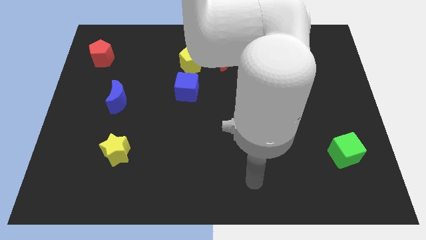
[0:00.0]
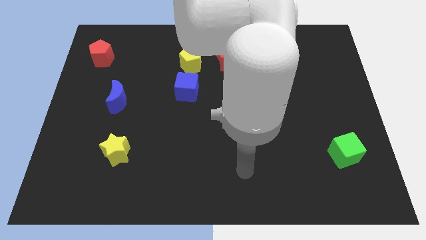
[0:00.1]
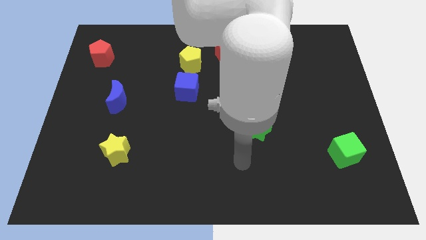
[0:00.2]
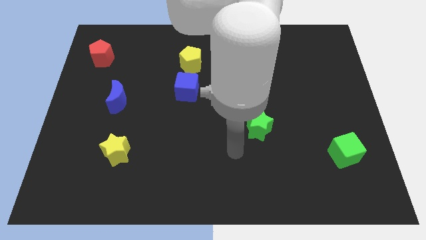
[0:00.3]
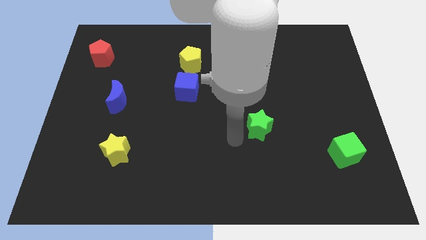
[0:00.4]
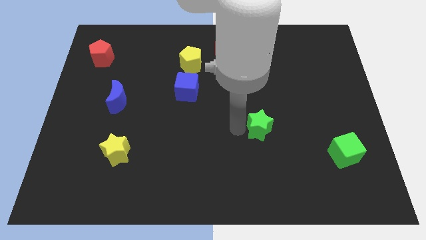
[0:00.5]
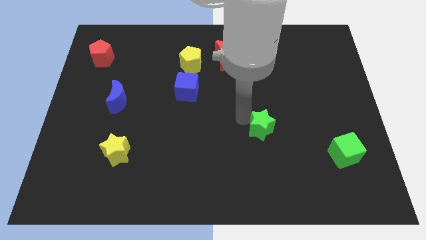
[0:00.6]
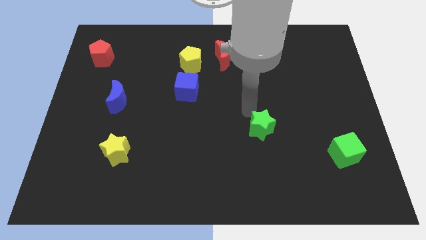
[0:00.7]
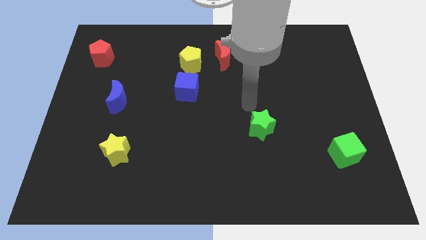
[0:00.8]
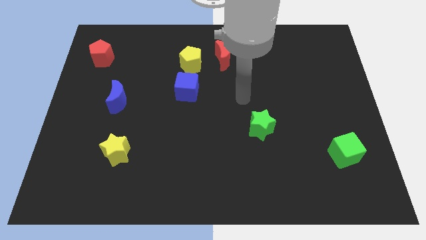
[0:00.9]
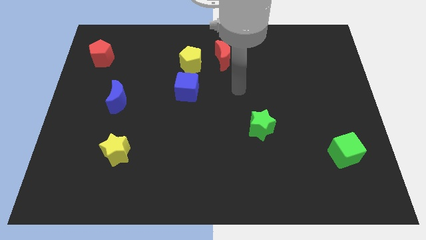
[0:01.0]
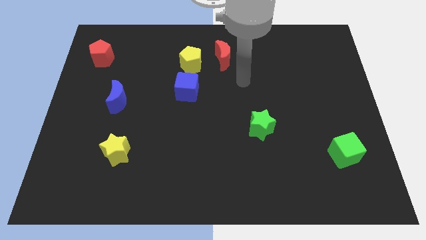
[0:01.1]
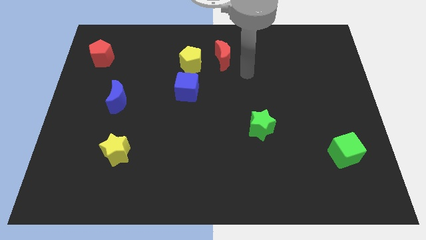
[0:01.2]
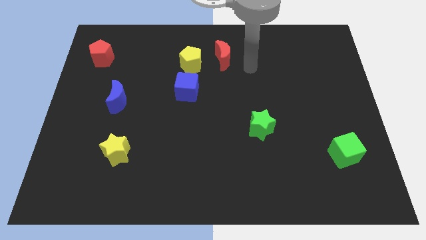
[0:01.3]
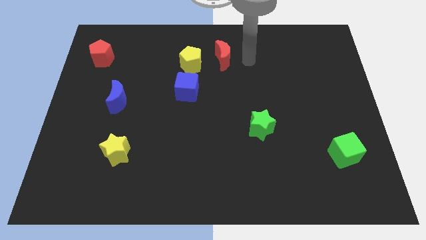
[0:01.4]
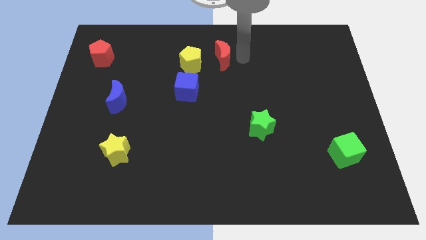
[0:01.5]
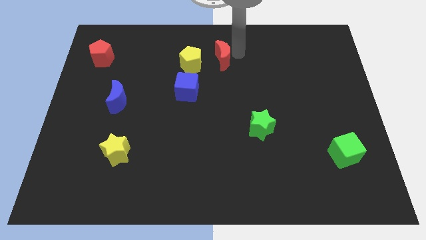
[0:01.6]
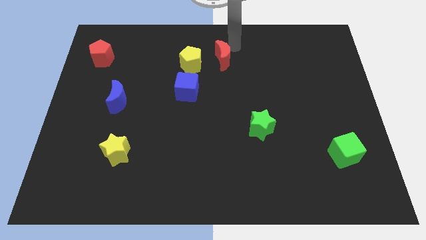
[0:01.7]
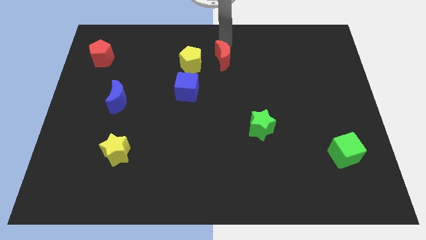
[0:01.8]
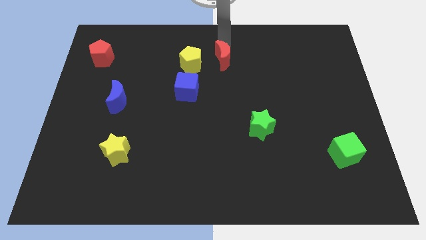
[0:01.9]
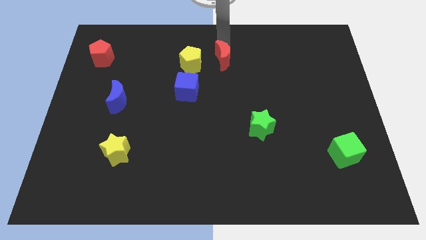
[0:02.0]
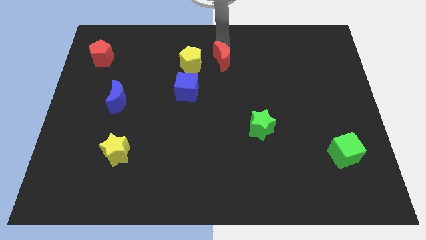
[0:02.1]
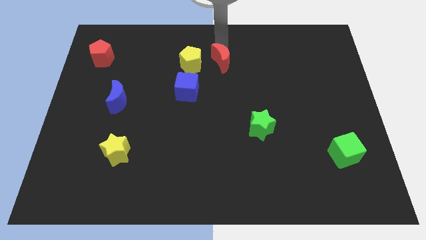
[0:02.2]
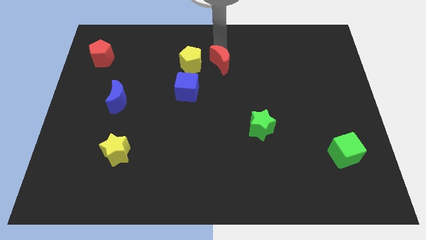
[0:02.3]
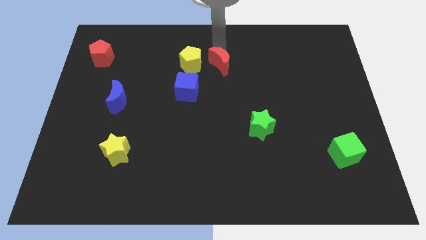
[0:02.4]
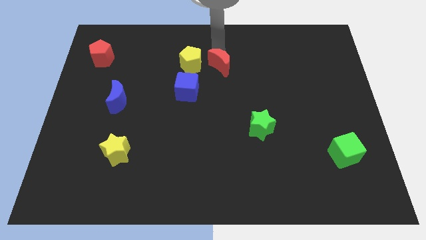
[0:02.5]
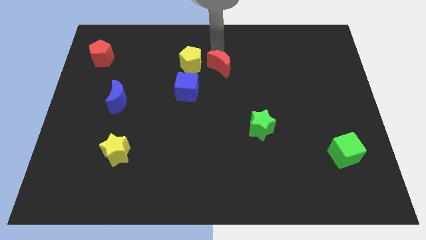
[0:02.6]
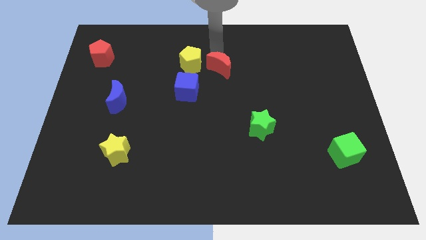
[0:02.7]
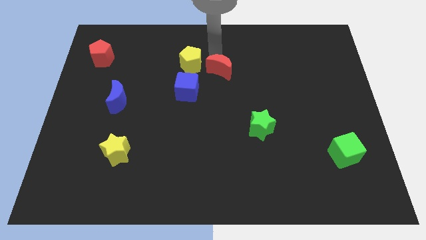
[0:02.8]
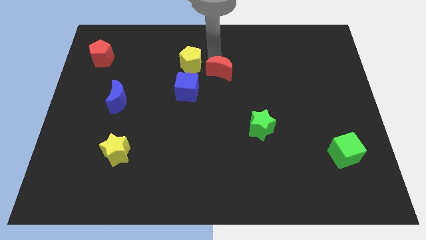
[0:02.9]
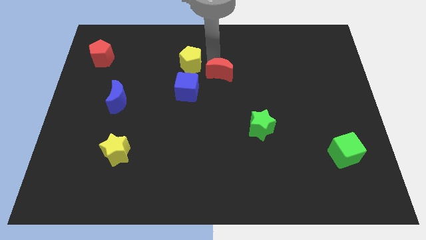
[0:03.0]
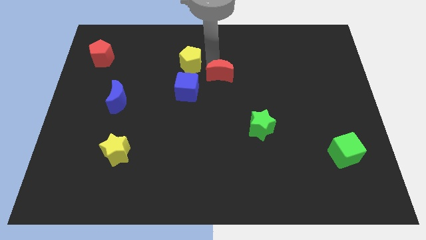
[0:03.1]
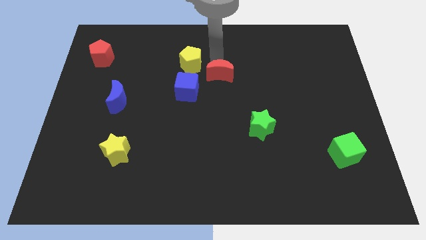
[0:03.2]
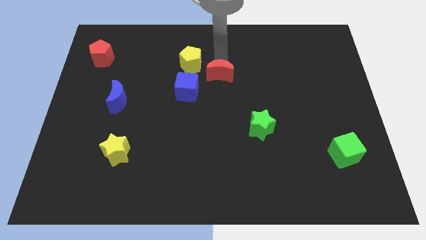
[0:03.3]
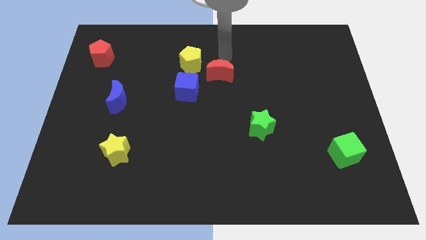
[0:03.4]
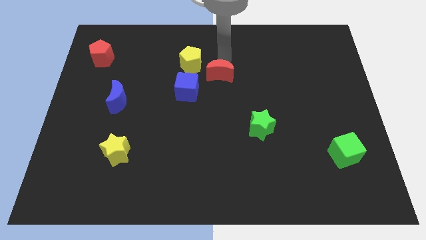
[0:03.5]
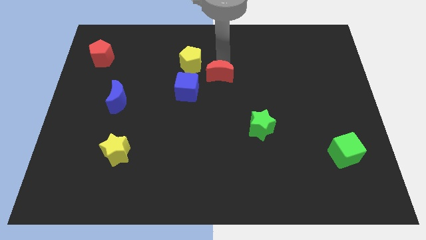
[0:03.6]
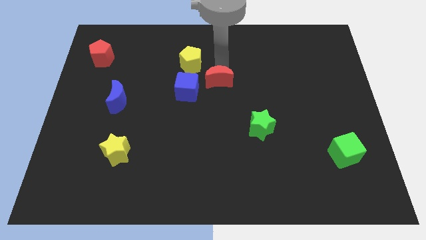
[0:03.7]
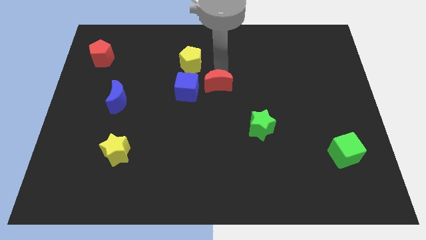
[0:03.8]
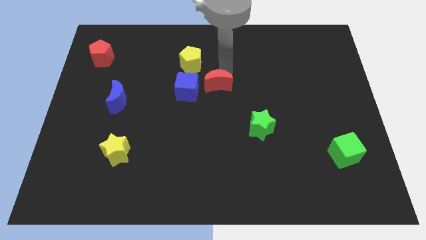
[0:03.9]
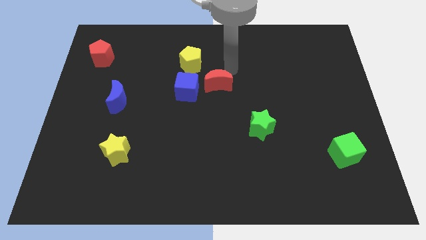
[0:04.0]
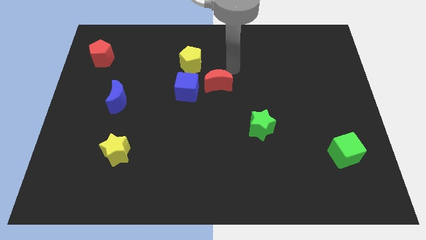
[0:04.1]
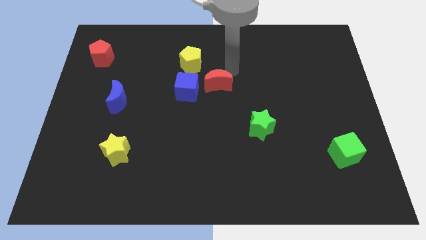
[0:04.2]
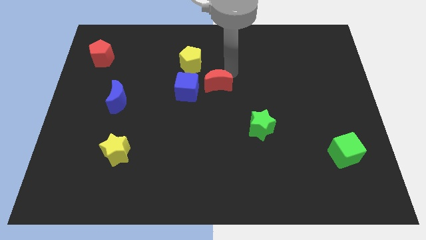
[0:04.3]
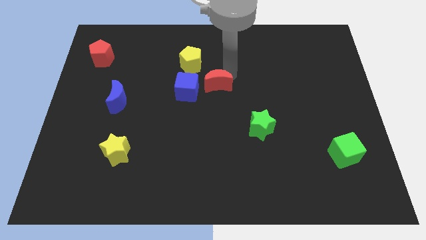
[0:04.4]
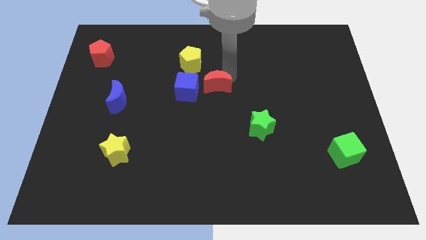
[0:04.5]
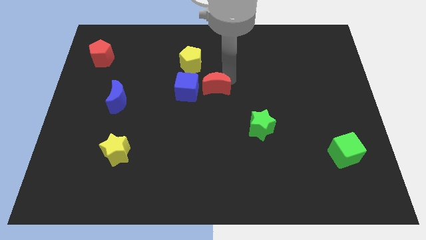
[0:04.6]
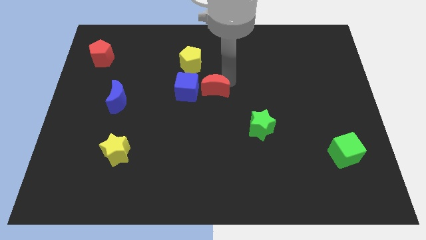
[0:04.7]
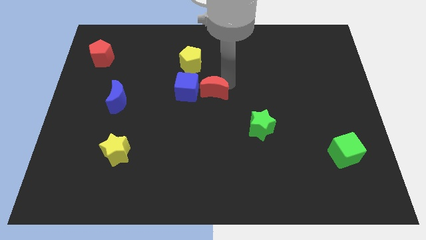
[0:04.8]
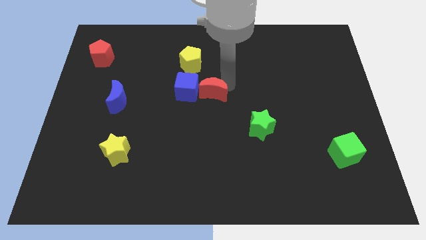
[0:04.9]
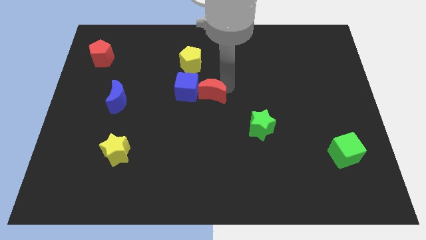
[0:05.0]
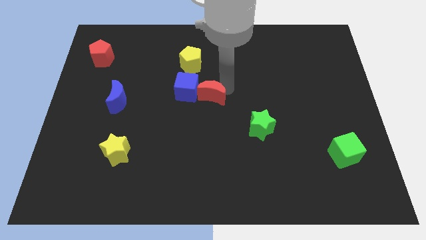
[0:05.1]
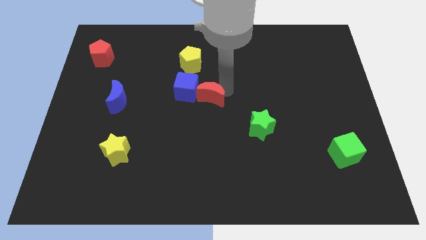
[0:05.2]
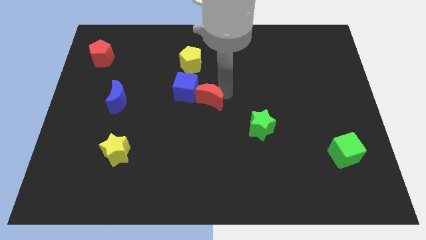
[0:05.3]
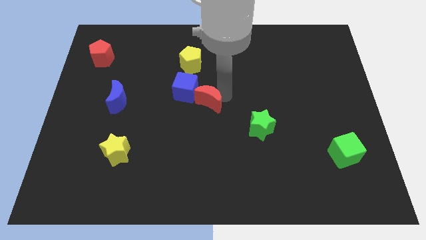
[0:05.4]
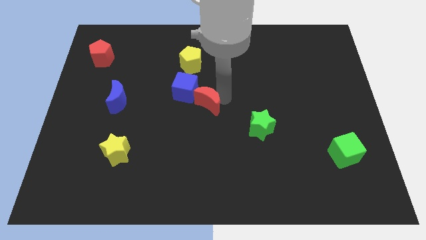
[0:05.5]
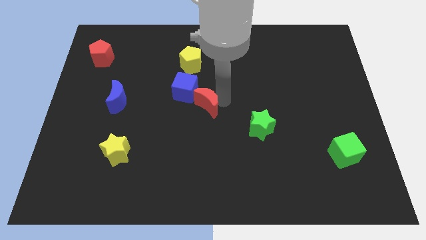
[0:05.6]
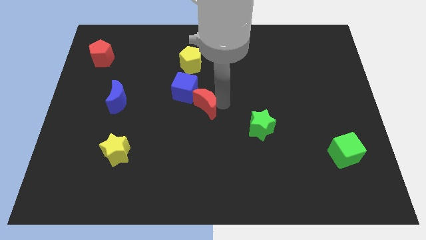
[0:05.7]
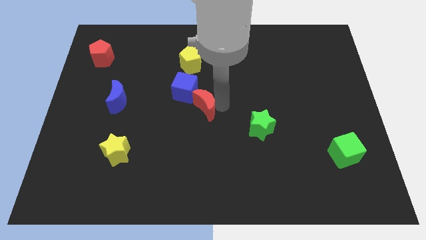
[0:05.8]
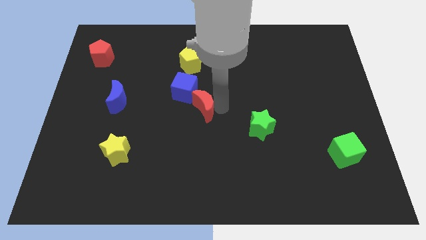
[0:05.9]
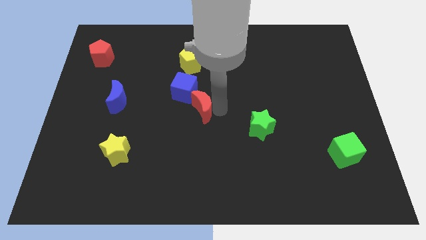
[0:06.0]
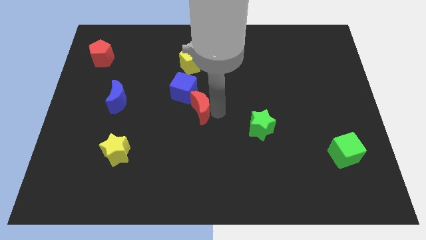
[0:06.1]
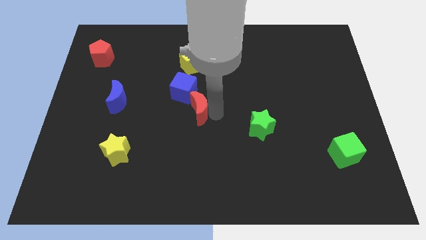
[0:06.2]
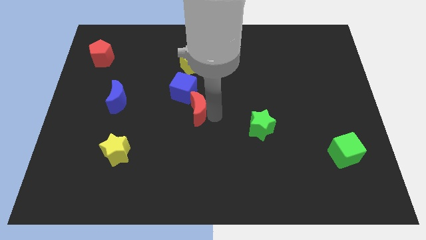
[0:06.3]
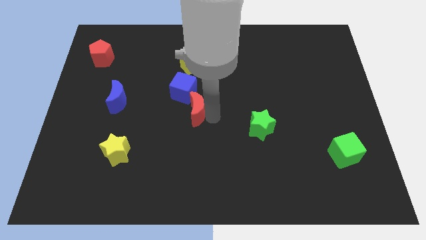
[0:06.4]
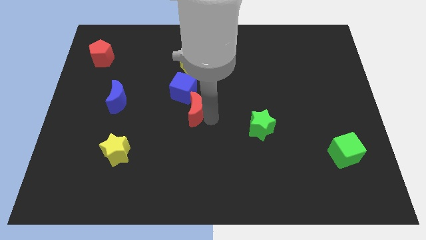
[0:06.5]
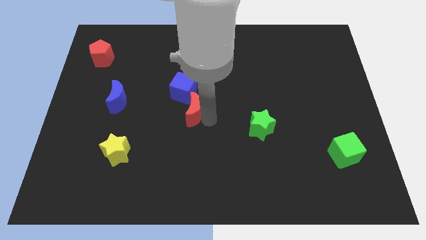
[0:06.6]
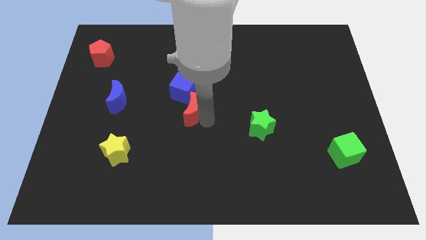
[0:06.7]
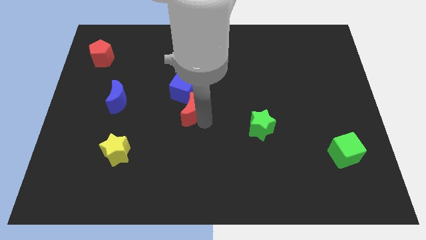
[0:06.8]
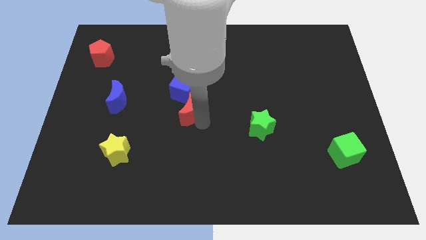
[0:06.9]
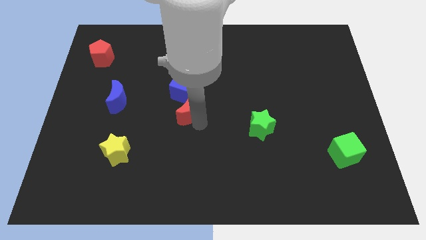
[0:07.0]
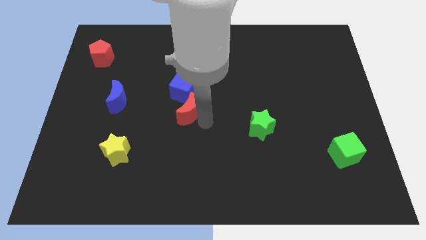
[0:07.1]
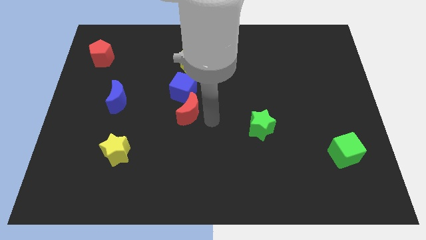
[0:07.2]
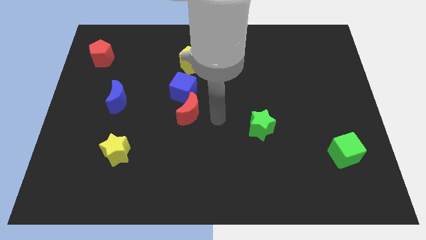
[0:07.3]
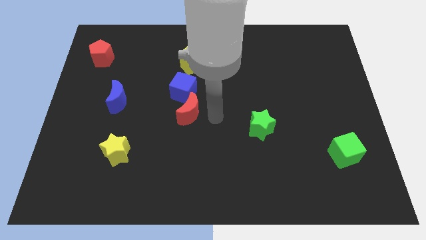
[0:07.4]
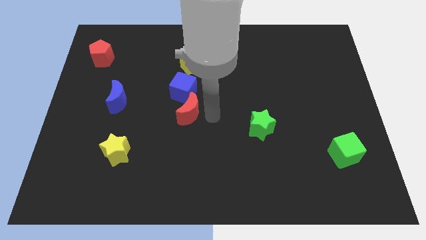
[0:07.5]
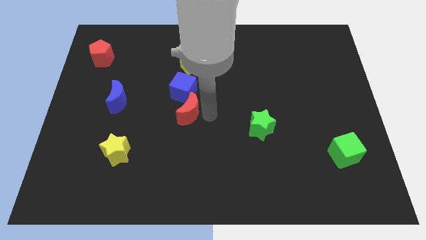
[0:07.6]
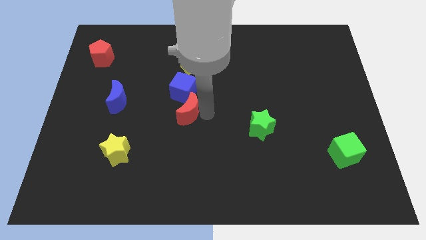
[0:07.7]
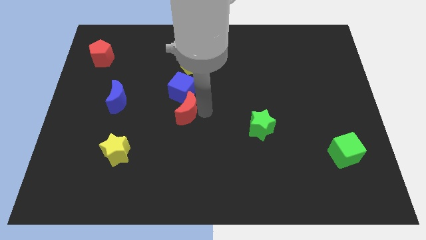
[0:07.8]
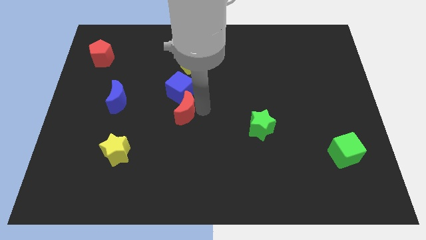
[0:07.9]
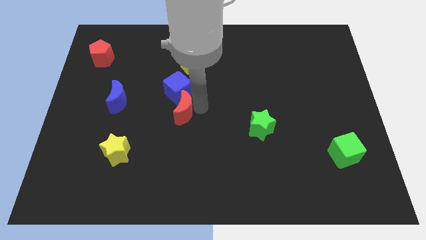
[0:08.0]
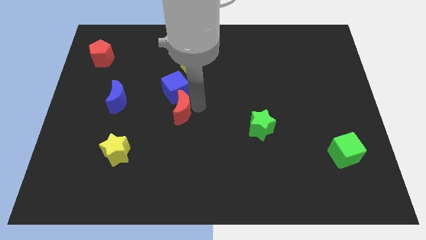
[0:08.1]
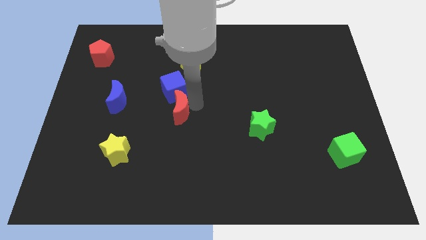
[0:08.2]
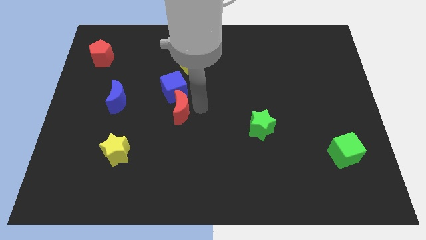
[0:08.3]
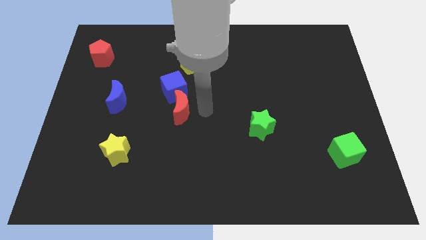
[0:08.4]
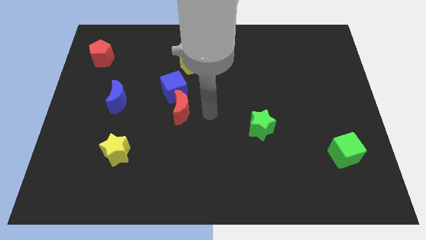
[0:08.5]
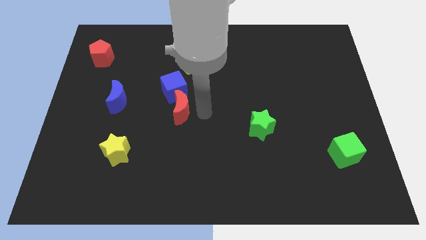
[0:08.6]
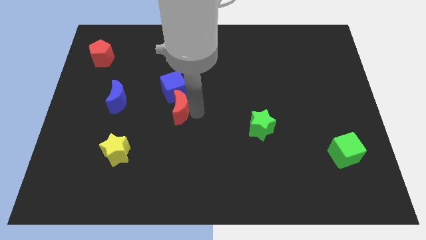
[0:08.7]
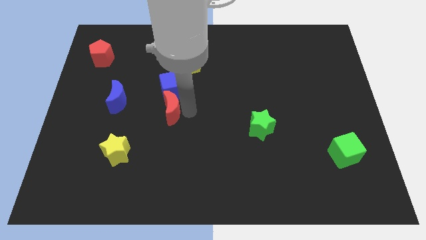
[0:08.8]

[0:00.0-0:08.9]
move the red moon diagonally down and to the left of the blue cube
